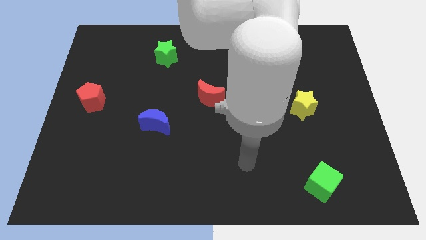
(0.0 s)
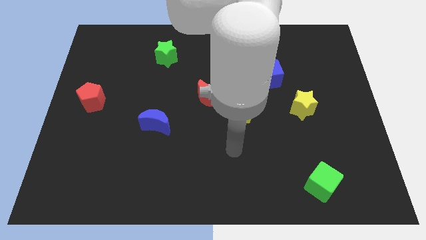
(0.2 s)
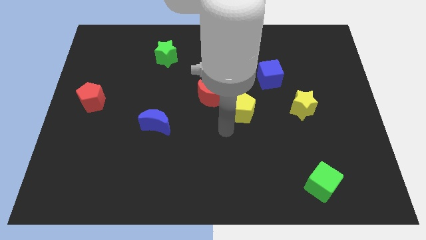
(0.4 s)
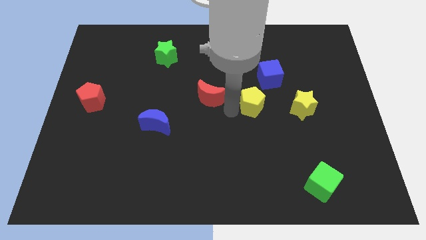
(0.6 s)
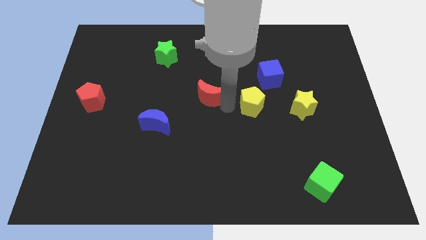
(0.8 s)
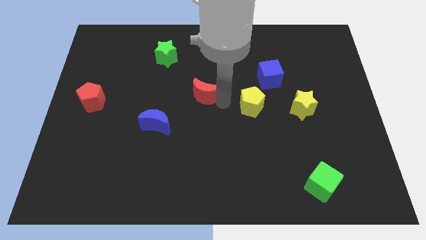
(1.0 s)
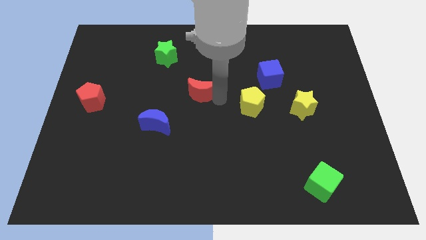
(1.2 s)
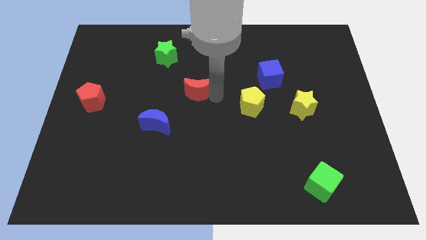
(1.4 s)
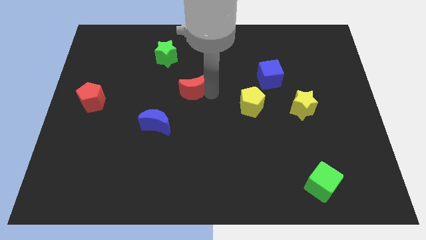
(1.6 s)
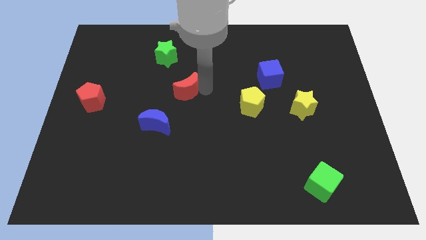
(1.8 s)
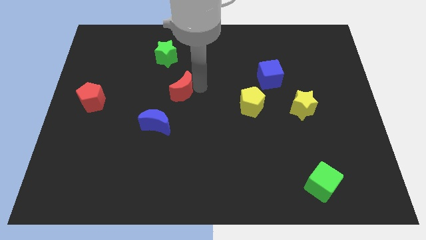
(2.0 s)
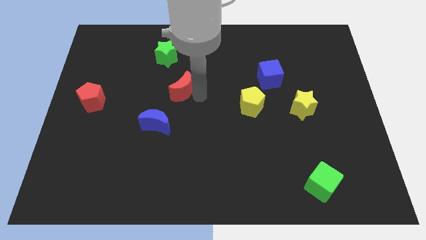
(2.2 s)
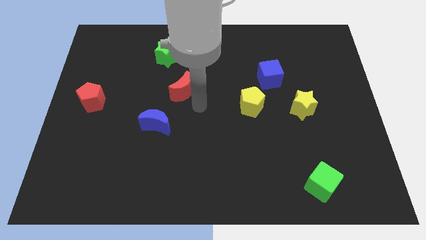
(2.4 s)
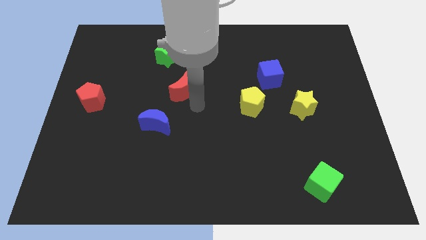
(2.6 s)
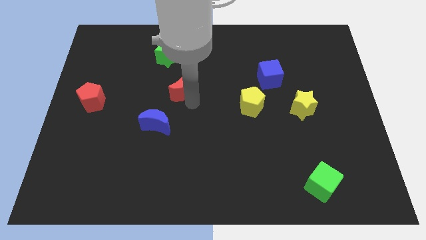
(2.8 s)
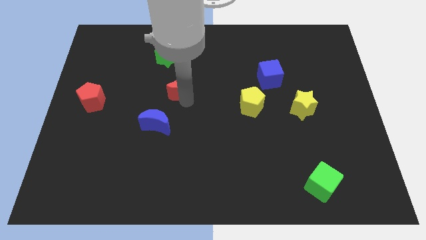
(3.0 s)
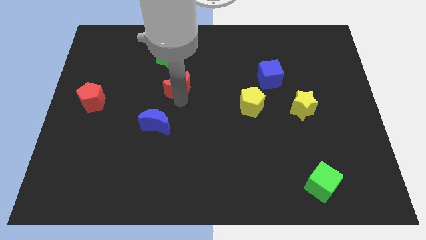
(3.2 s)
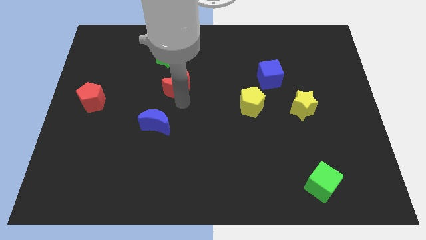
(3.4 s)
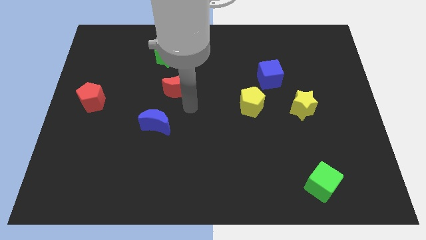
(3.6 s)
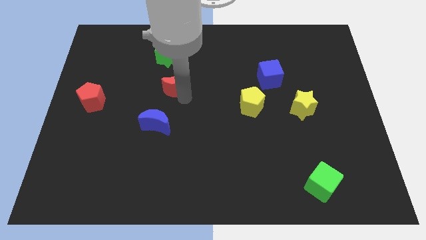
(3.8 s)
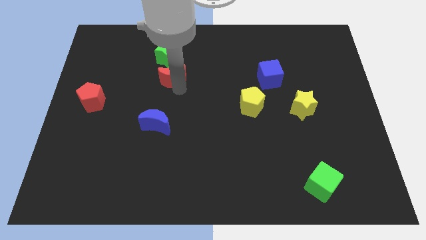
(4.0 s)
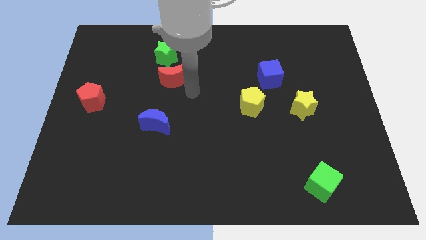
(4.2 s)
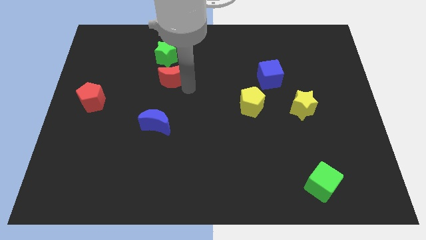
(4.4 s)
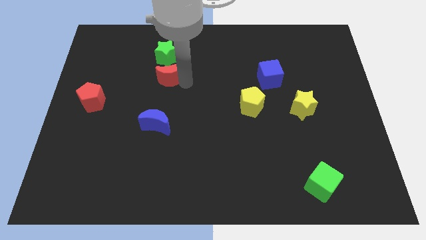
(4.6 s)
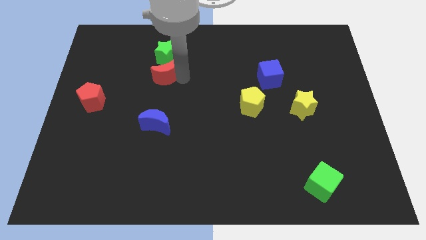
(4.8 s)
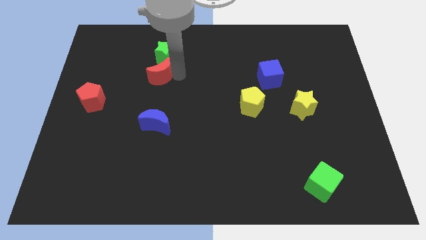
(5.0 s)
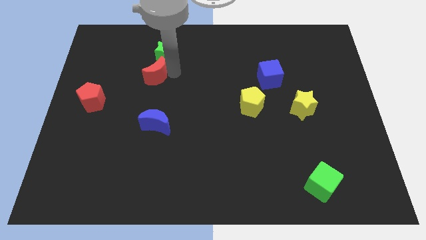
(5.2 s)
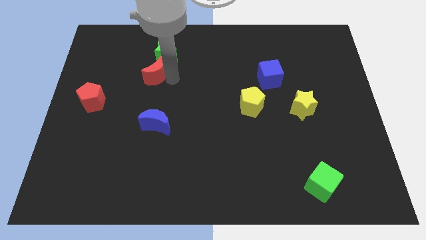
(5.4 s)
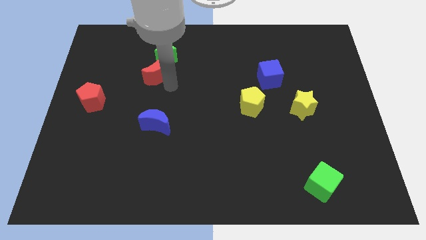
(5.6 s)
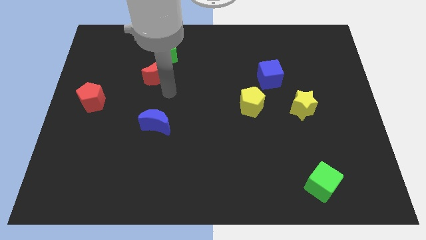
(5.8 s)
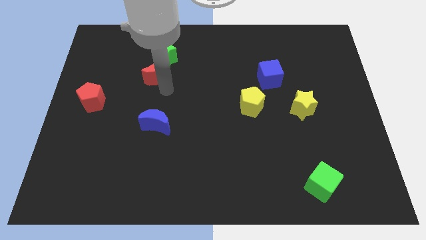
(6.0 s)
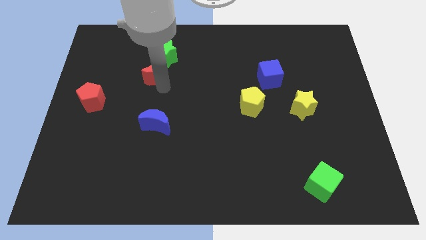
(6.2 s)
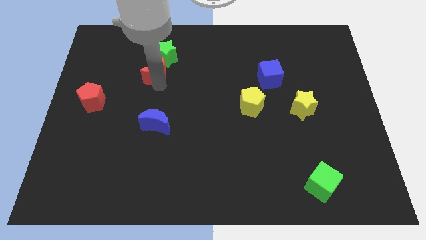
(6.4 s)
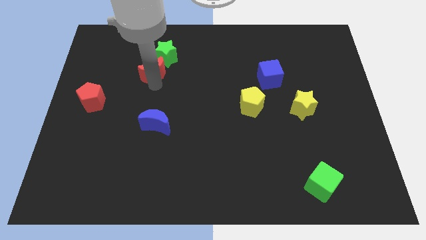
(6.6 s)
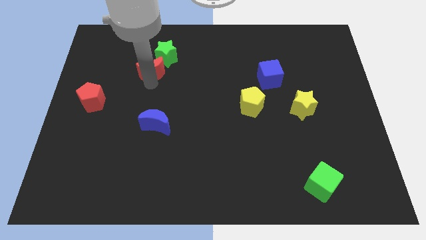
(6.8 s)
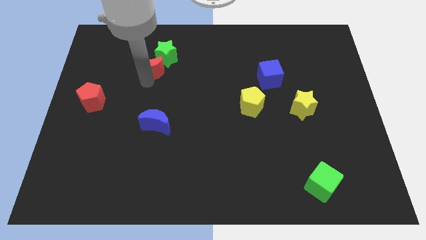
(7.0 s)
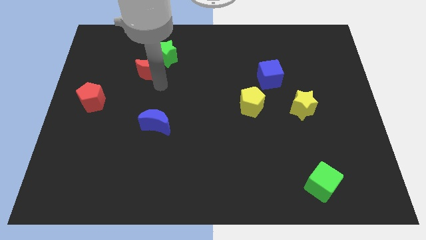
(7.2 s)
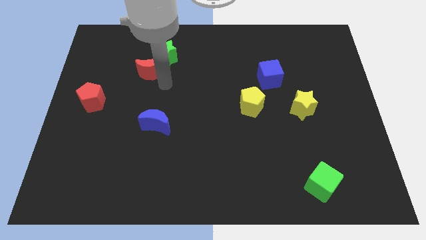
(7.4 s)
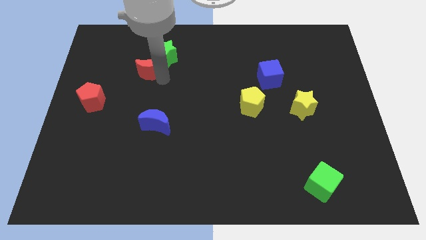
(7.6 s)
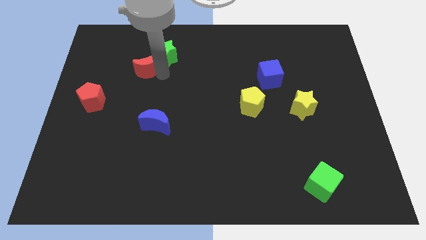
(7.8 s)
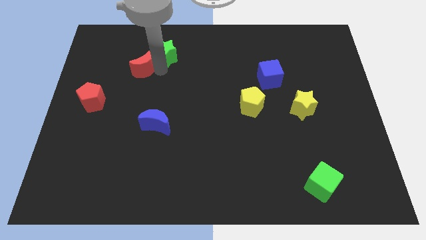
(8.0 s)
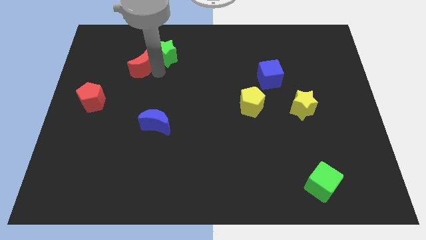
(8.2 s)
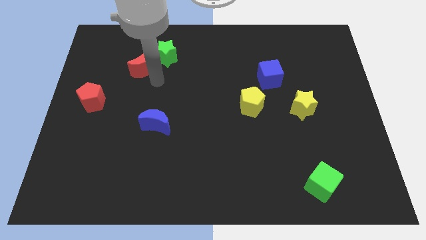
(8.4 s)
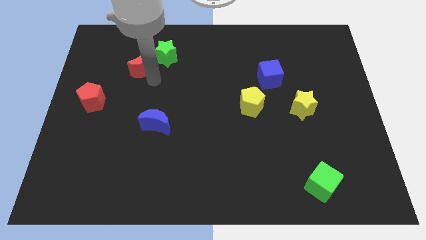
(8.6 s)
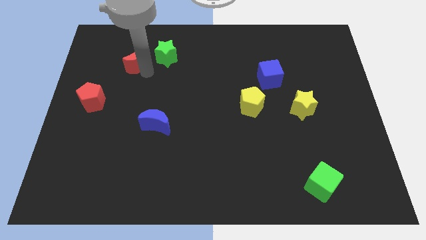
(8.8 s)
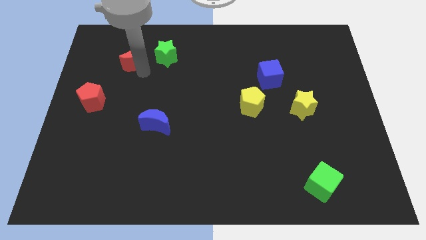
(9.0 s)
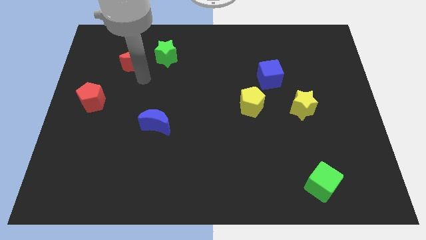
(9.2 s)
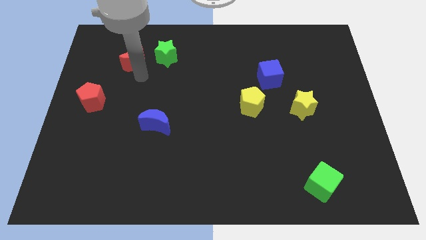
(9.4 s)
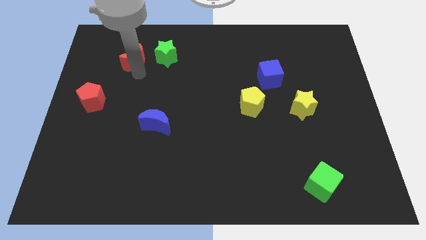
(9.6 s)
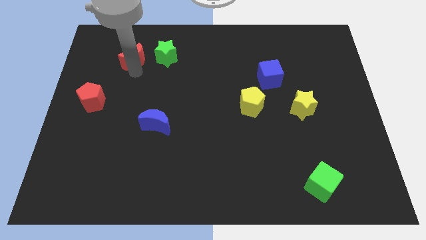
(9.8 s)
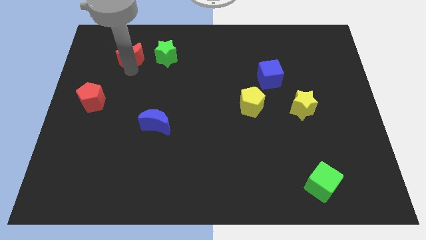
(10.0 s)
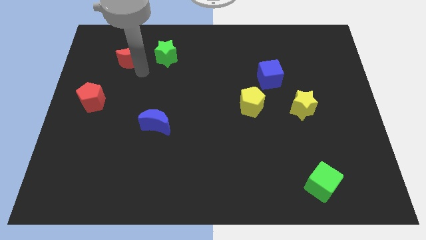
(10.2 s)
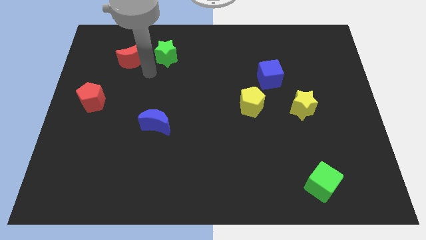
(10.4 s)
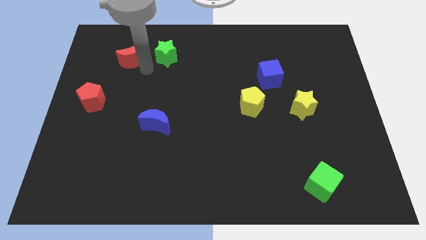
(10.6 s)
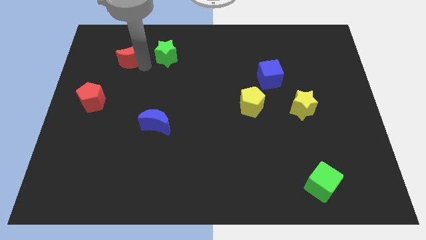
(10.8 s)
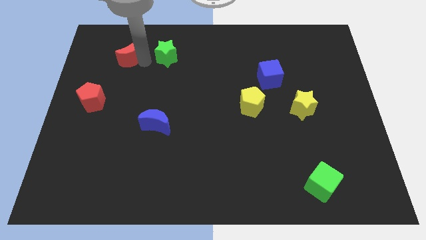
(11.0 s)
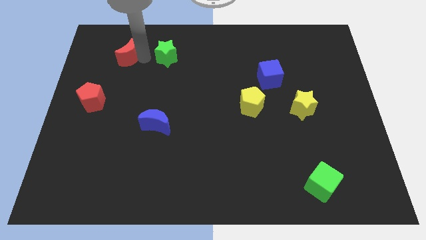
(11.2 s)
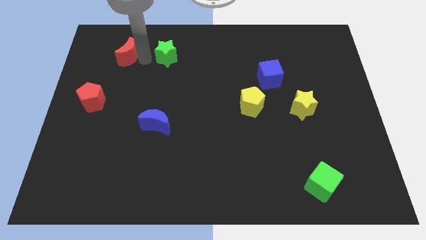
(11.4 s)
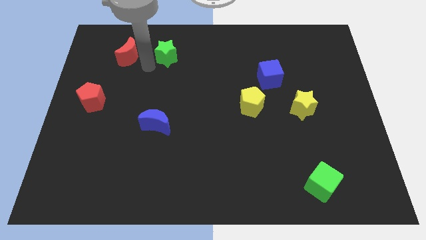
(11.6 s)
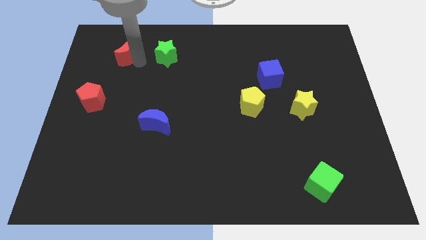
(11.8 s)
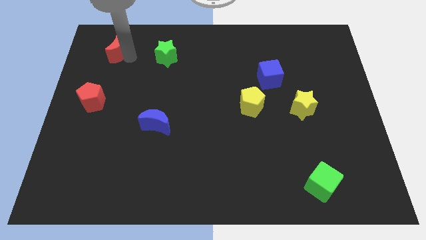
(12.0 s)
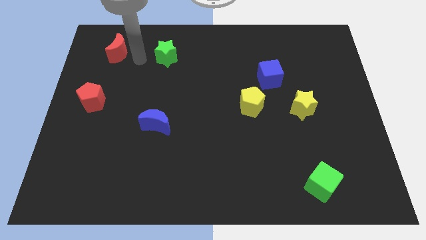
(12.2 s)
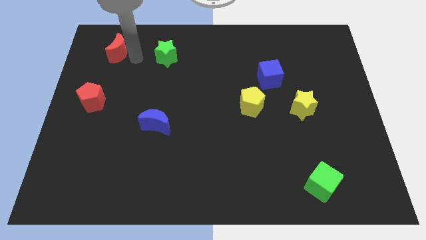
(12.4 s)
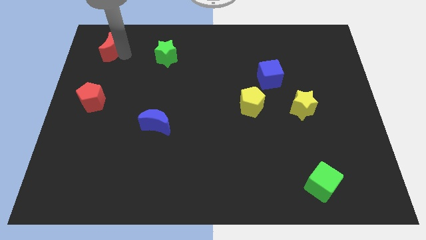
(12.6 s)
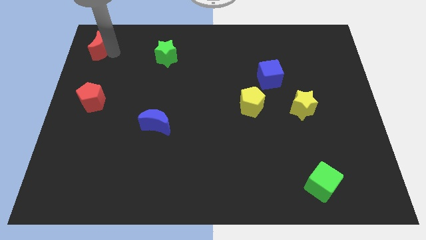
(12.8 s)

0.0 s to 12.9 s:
push the red moon to the top left
